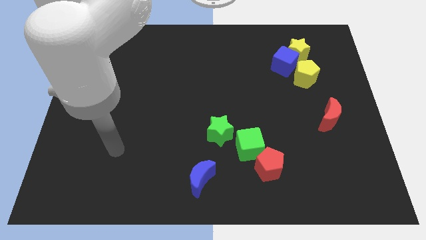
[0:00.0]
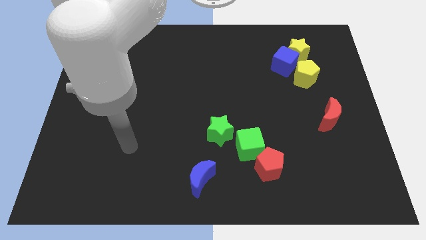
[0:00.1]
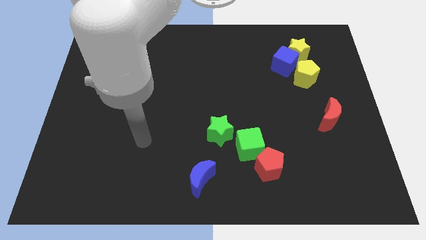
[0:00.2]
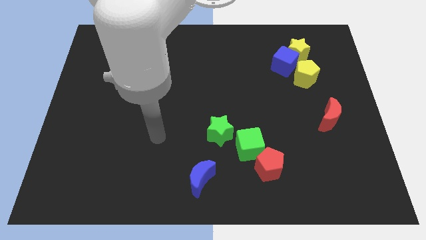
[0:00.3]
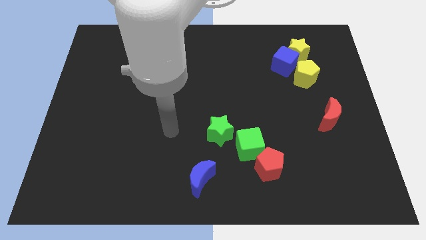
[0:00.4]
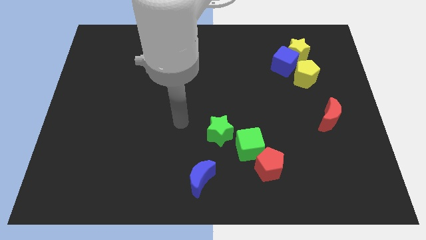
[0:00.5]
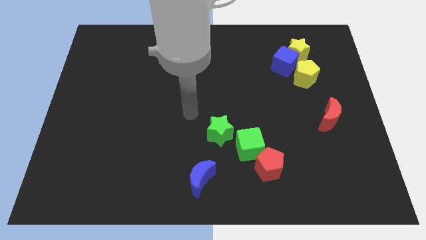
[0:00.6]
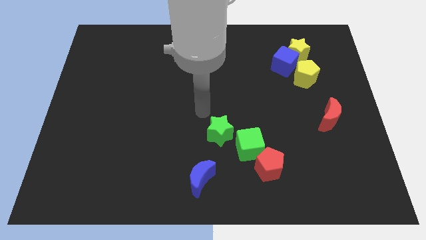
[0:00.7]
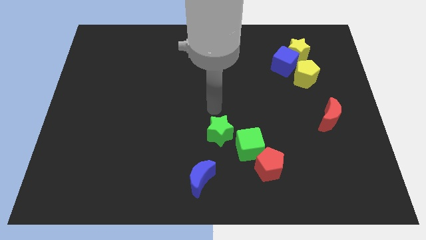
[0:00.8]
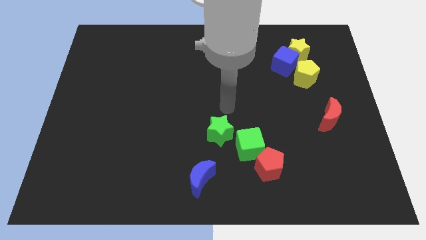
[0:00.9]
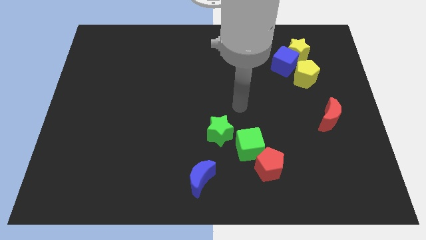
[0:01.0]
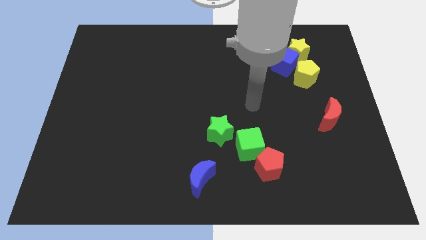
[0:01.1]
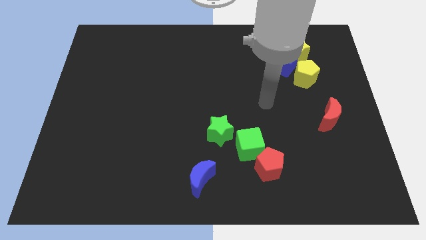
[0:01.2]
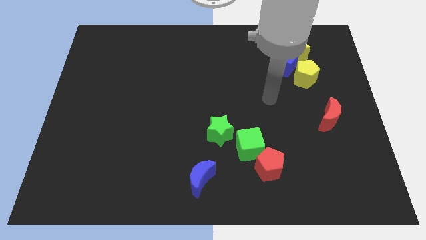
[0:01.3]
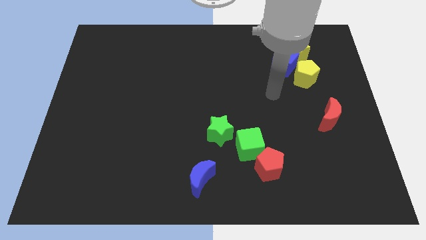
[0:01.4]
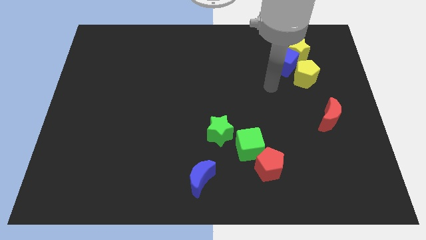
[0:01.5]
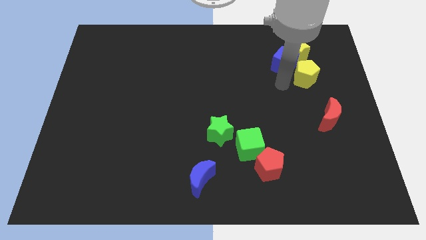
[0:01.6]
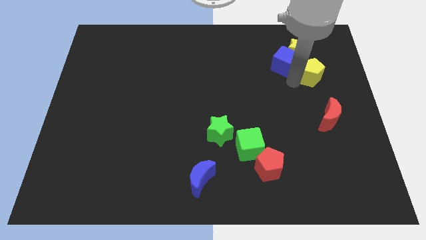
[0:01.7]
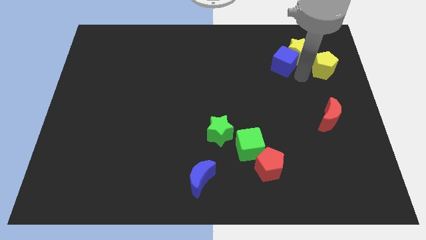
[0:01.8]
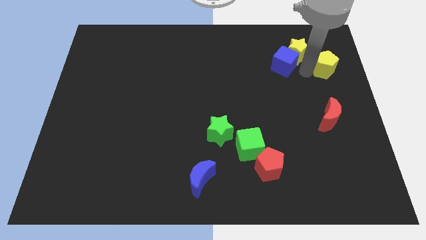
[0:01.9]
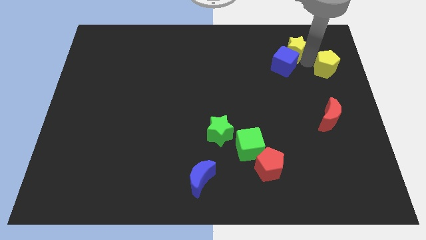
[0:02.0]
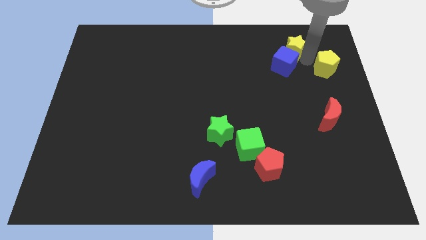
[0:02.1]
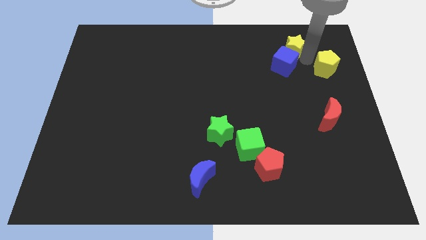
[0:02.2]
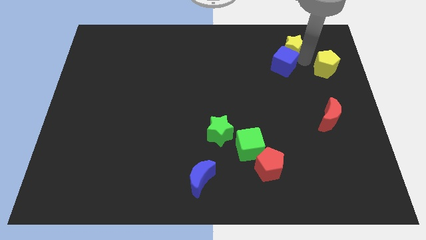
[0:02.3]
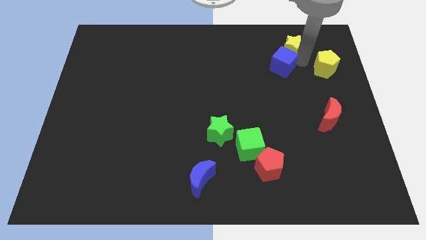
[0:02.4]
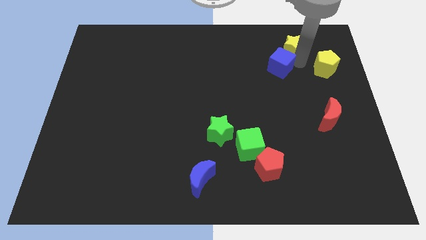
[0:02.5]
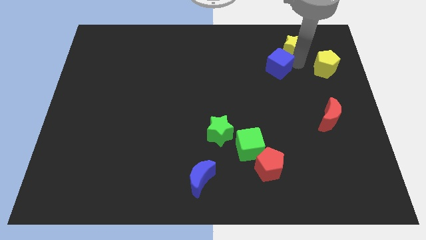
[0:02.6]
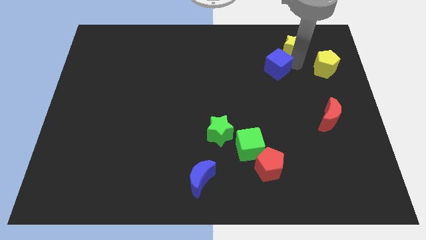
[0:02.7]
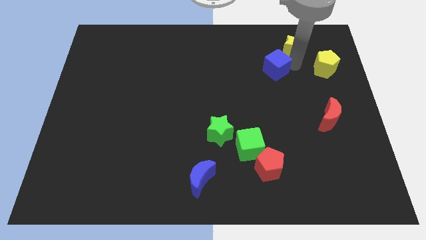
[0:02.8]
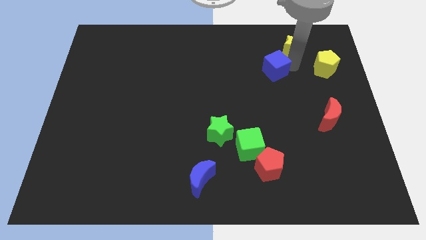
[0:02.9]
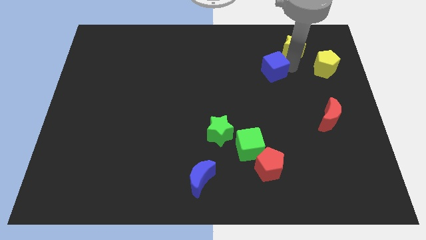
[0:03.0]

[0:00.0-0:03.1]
pull the blue cube apart from the yellow star and yellow pentagon

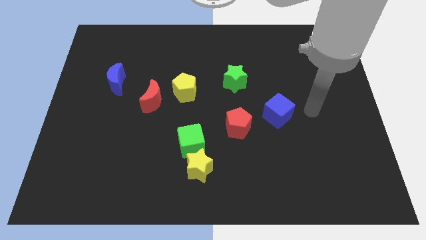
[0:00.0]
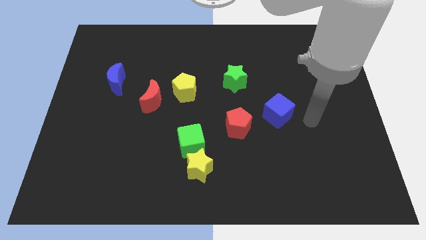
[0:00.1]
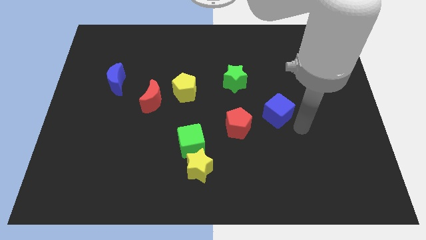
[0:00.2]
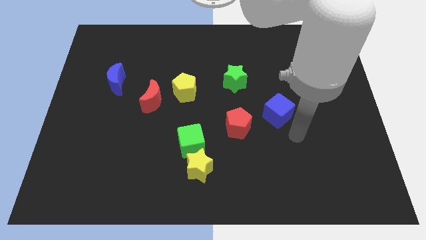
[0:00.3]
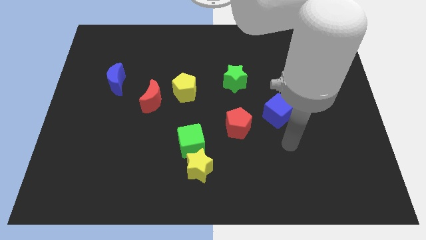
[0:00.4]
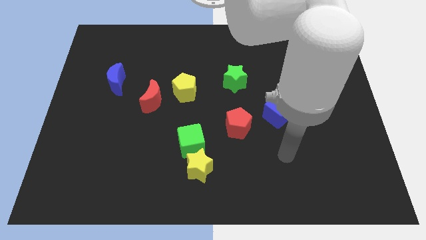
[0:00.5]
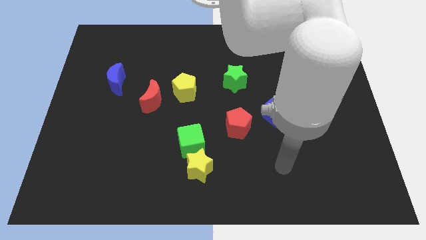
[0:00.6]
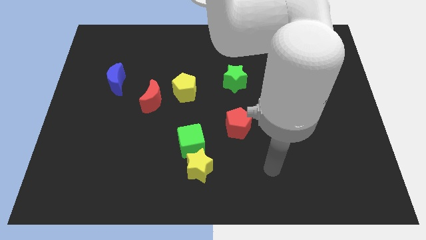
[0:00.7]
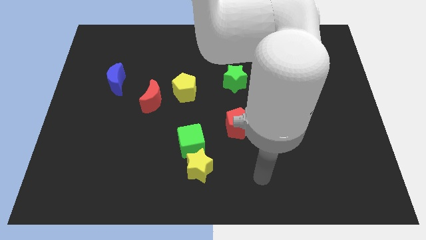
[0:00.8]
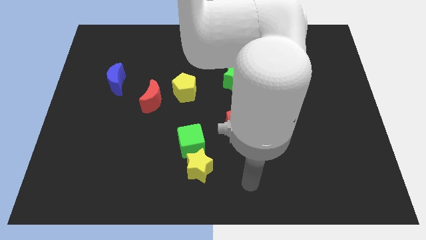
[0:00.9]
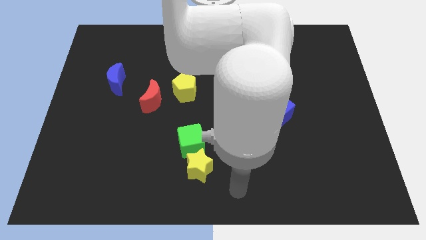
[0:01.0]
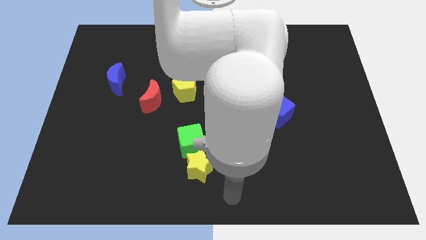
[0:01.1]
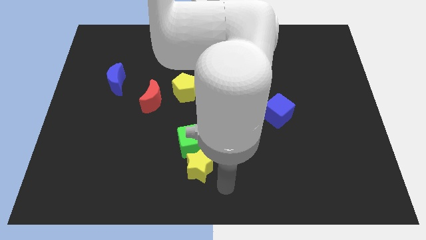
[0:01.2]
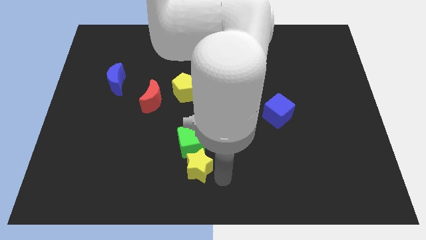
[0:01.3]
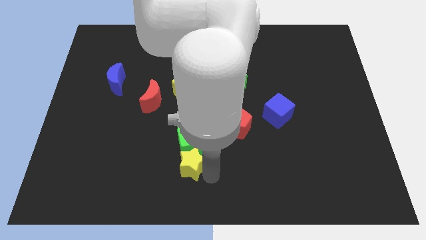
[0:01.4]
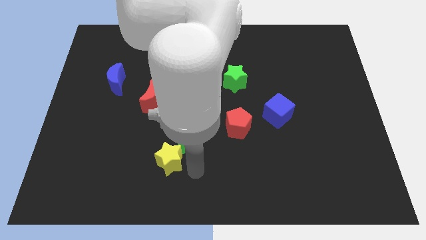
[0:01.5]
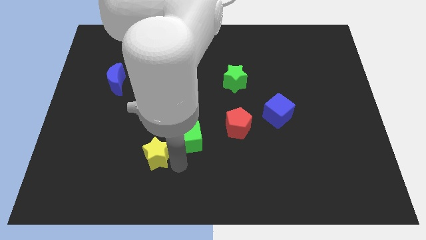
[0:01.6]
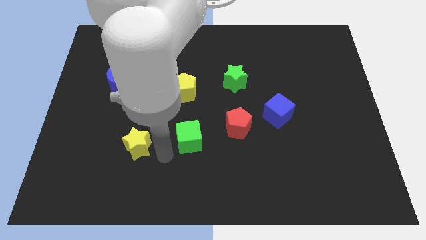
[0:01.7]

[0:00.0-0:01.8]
separate the green cube from the yellow star

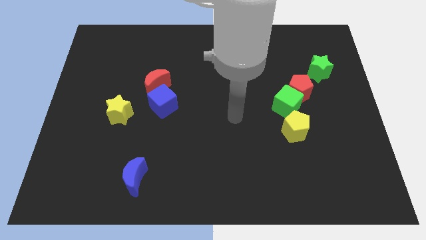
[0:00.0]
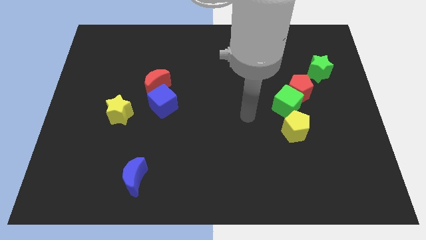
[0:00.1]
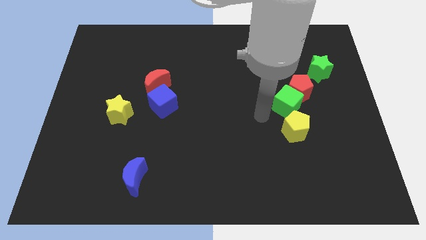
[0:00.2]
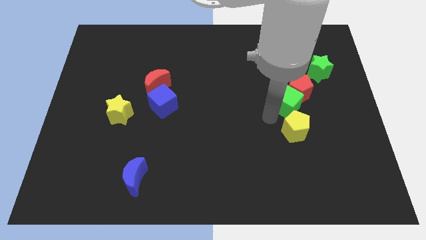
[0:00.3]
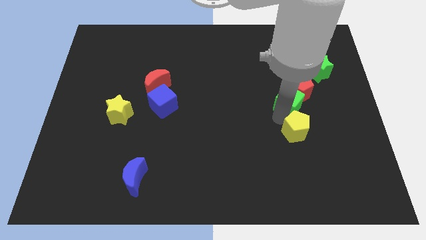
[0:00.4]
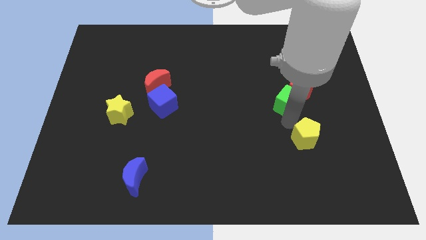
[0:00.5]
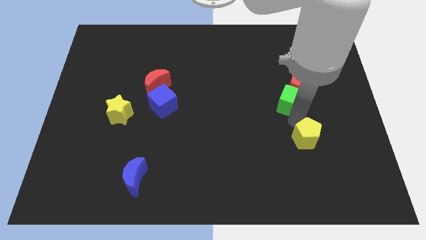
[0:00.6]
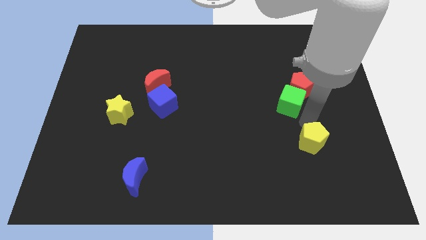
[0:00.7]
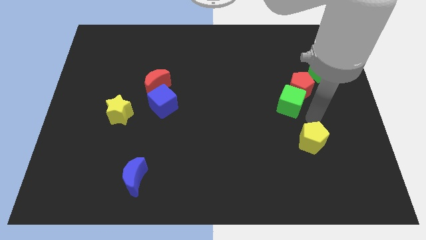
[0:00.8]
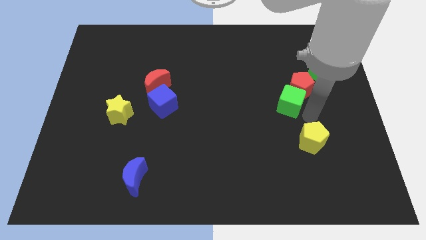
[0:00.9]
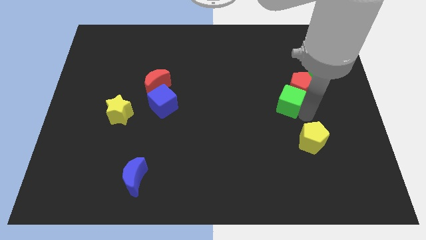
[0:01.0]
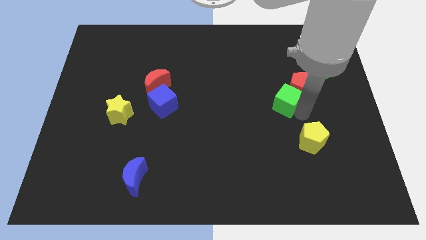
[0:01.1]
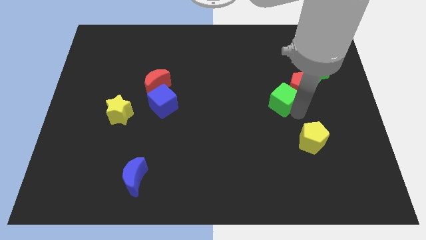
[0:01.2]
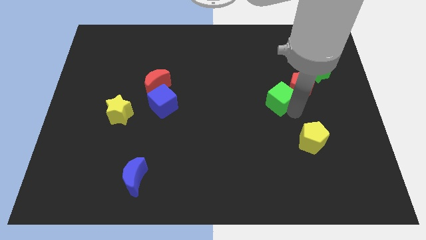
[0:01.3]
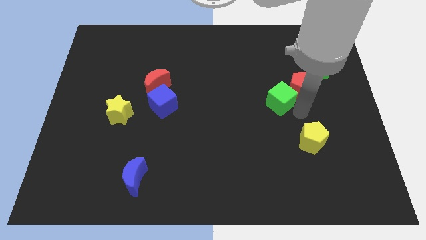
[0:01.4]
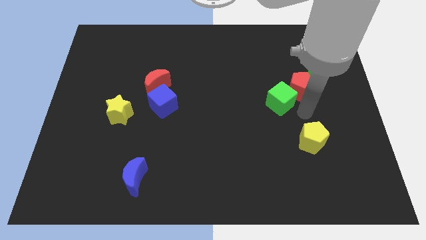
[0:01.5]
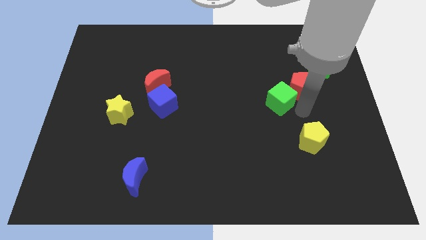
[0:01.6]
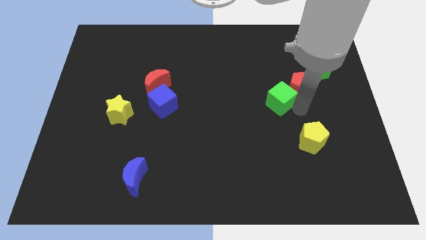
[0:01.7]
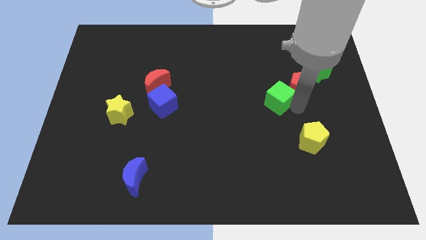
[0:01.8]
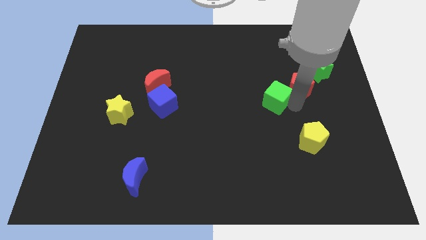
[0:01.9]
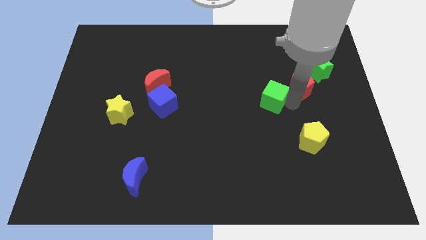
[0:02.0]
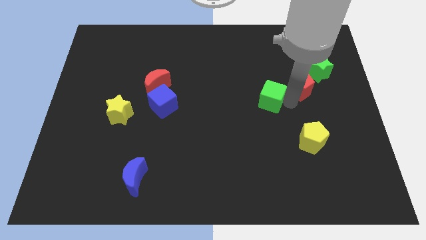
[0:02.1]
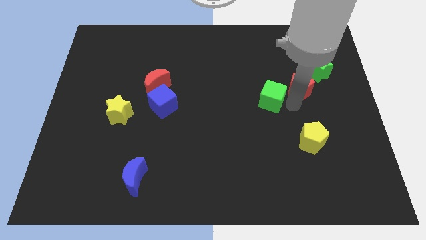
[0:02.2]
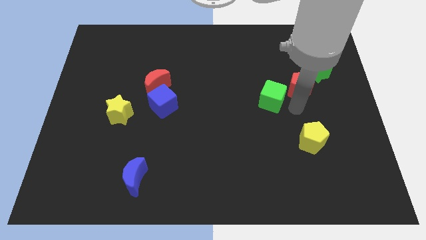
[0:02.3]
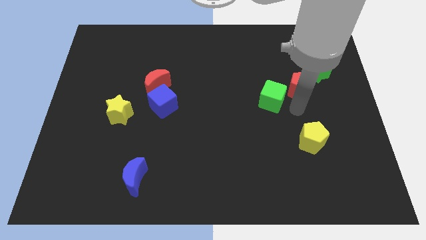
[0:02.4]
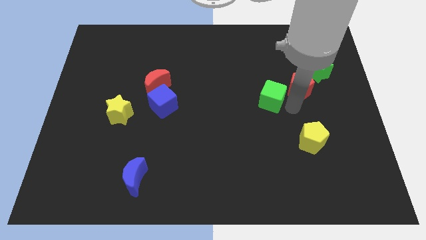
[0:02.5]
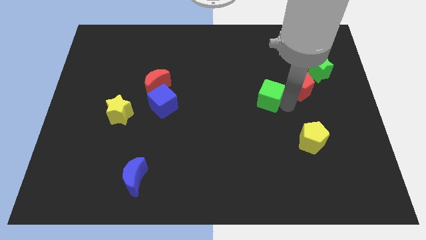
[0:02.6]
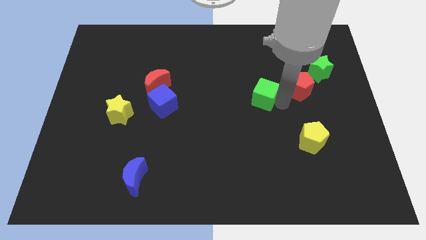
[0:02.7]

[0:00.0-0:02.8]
separate the green cube from the red pentagon and yellow pentagon

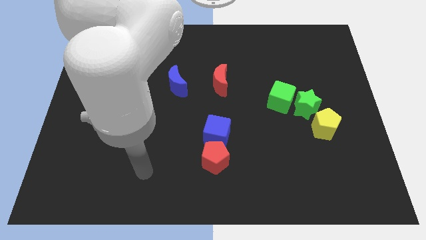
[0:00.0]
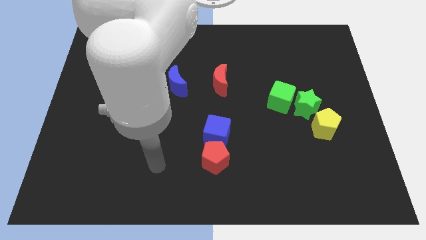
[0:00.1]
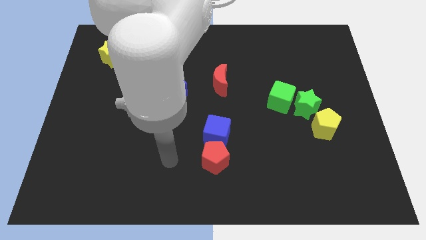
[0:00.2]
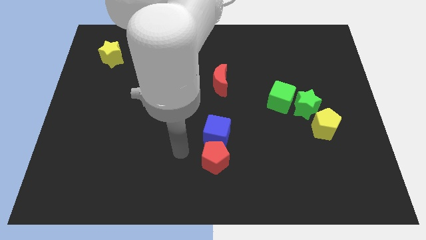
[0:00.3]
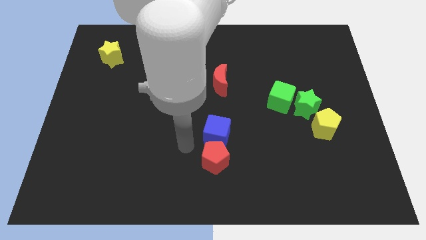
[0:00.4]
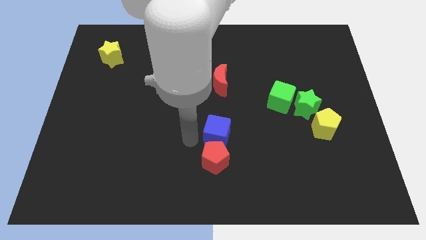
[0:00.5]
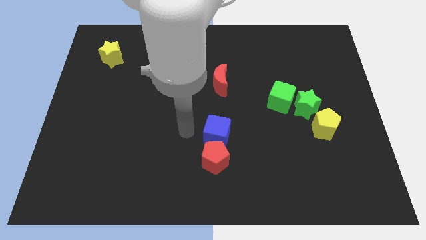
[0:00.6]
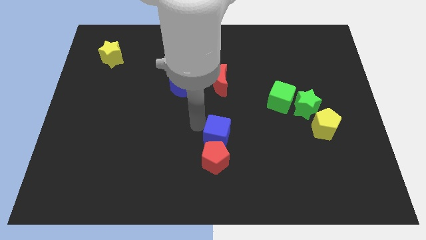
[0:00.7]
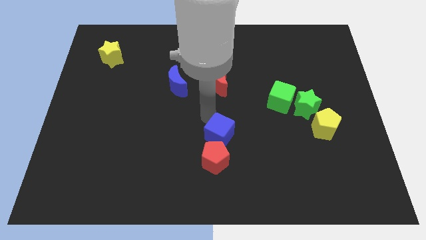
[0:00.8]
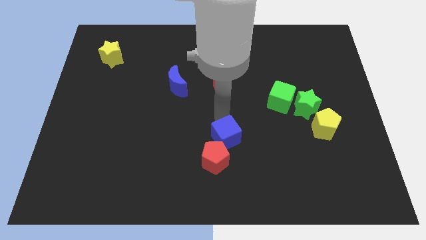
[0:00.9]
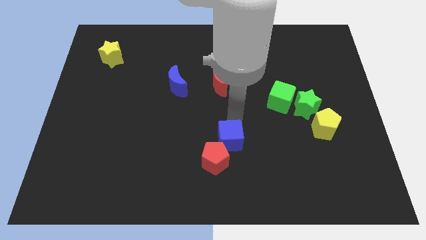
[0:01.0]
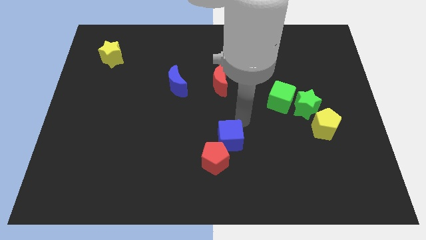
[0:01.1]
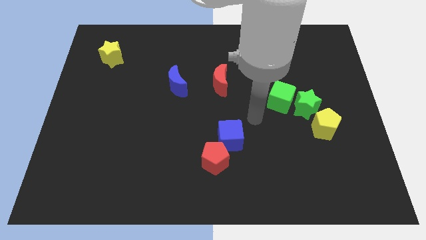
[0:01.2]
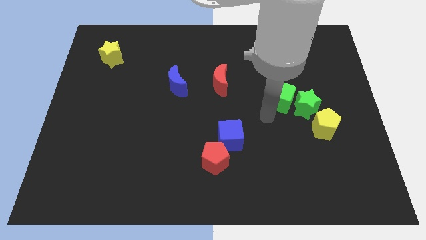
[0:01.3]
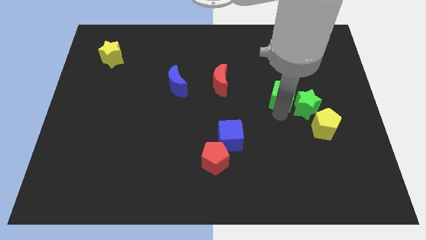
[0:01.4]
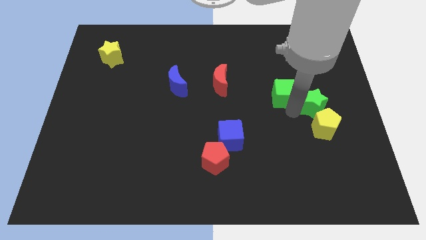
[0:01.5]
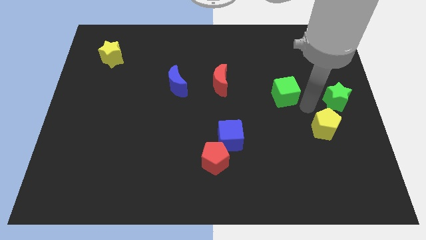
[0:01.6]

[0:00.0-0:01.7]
separate the green cube from the green star
